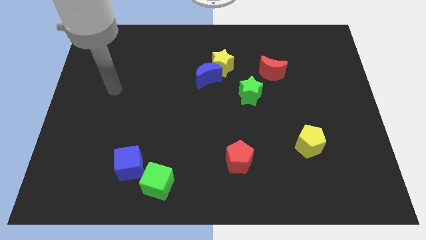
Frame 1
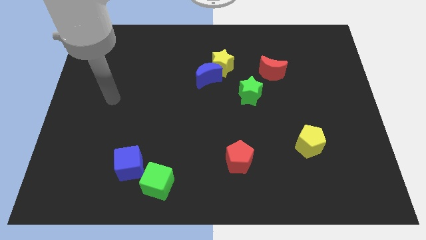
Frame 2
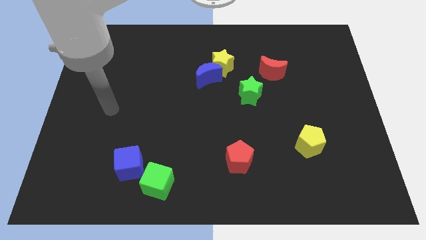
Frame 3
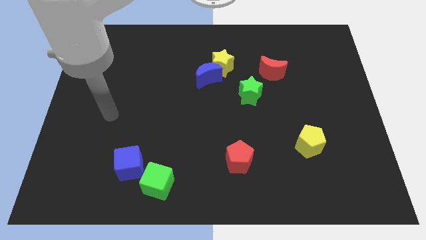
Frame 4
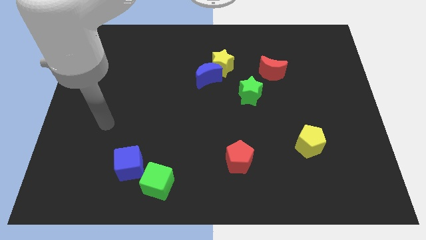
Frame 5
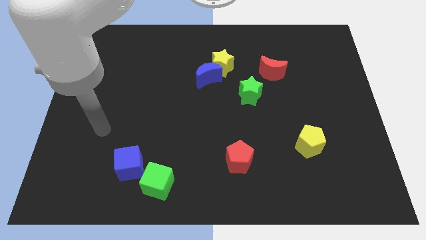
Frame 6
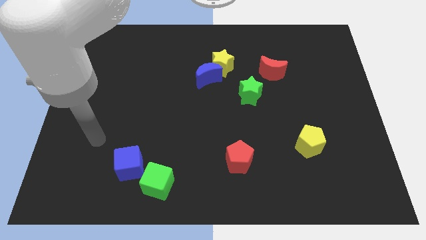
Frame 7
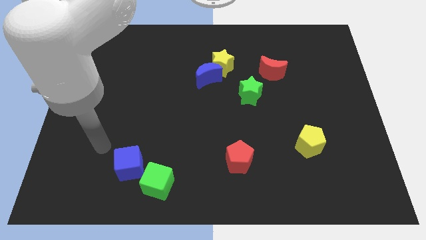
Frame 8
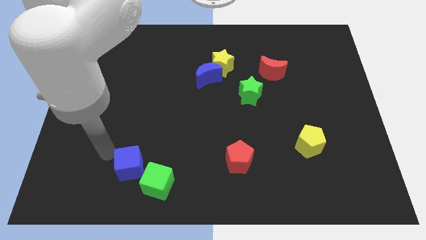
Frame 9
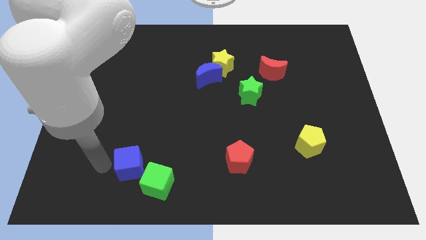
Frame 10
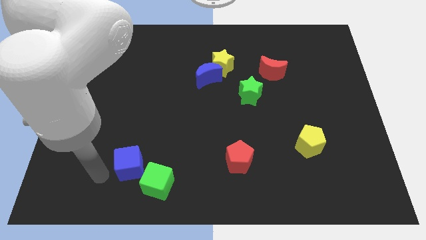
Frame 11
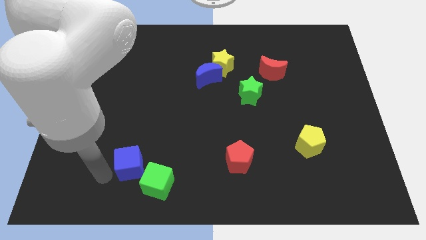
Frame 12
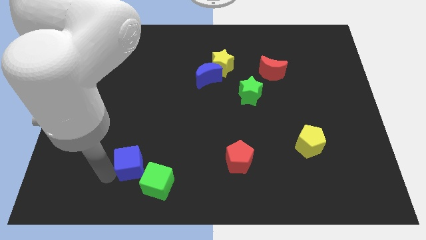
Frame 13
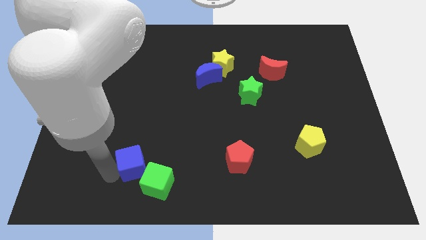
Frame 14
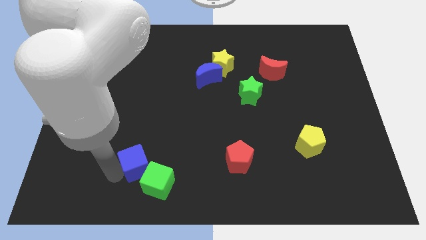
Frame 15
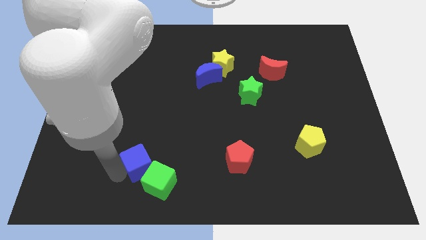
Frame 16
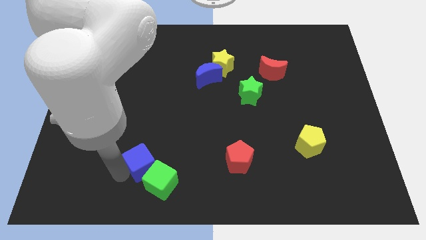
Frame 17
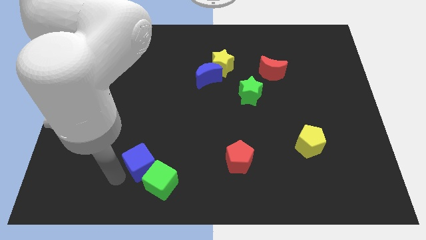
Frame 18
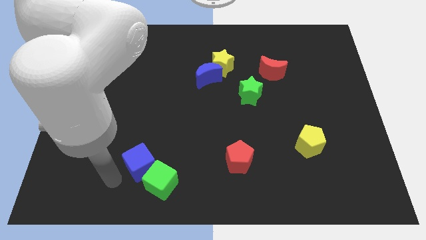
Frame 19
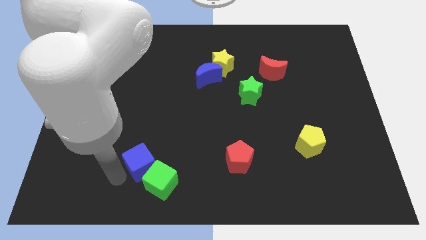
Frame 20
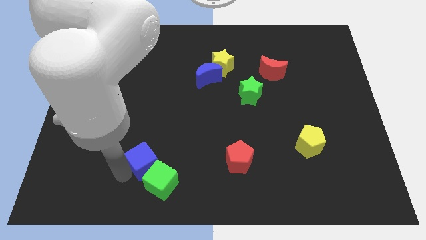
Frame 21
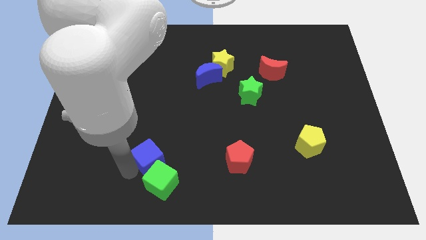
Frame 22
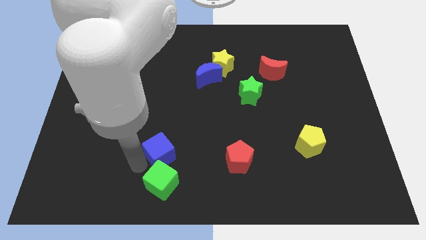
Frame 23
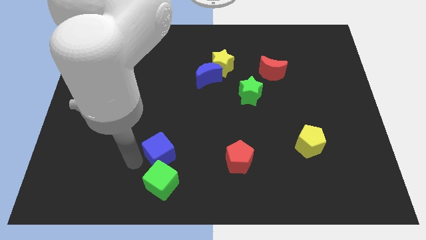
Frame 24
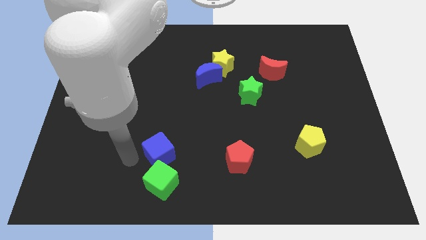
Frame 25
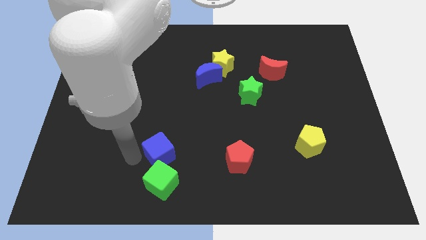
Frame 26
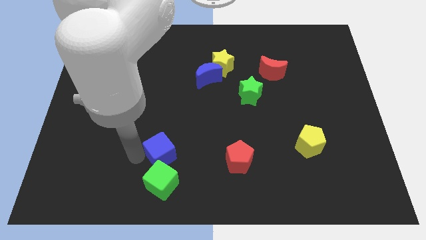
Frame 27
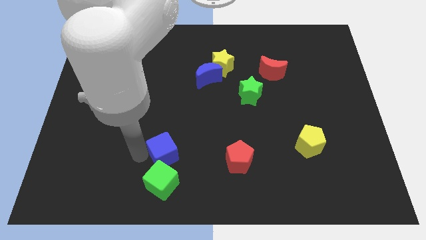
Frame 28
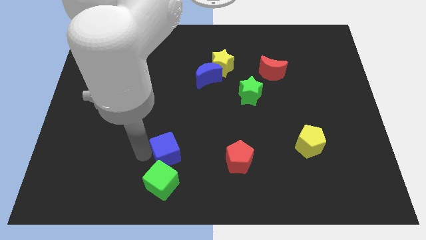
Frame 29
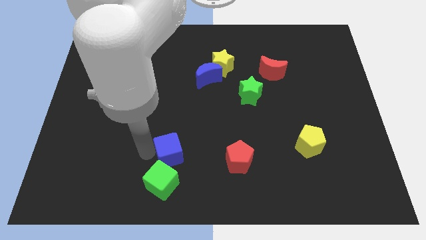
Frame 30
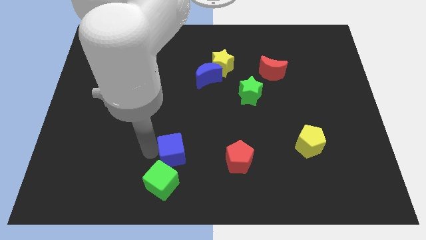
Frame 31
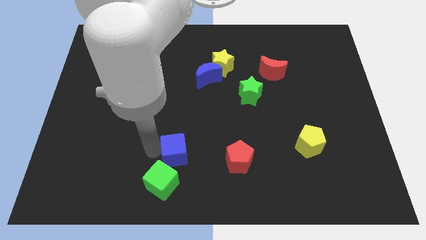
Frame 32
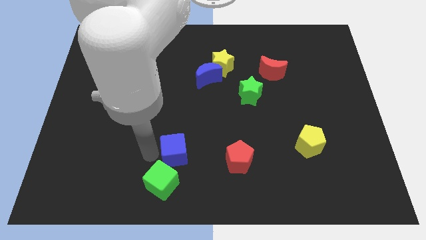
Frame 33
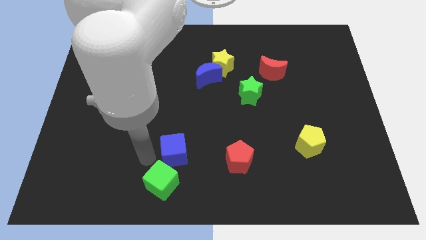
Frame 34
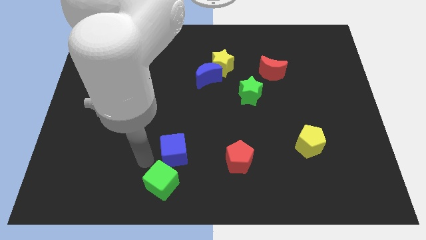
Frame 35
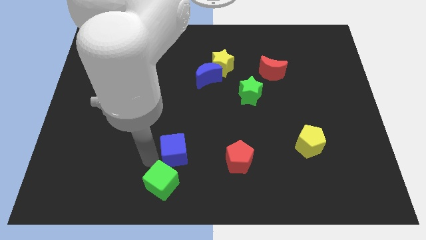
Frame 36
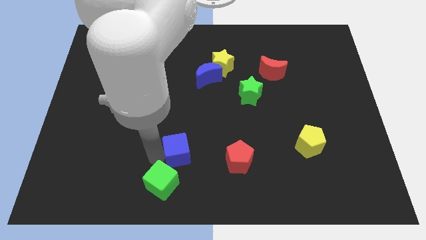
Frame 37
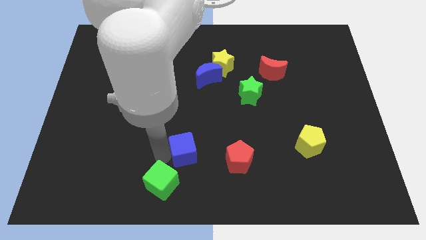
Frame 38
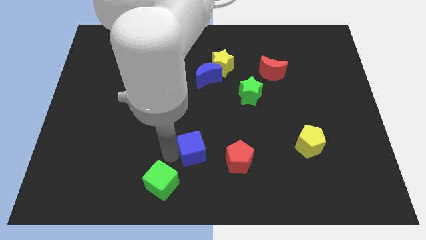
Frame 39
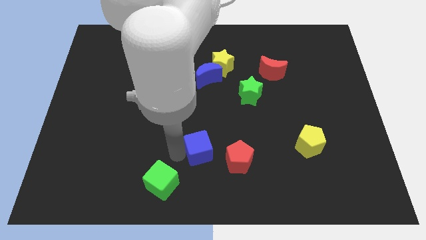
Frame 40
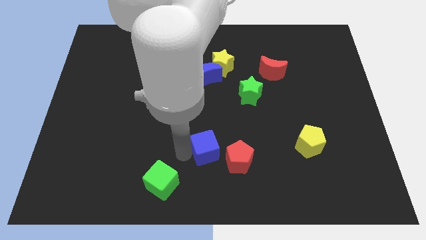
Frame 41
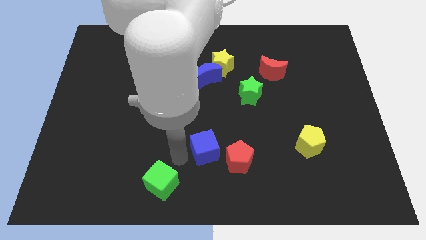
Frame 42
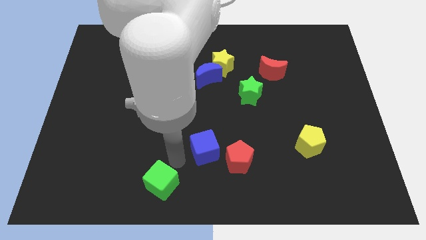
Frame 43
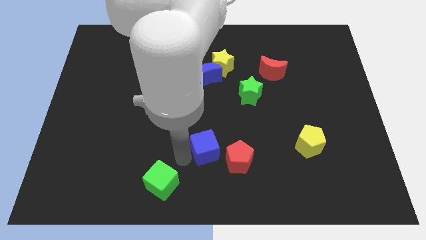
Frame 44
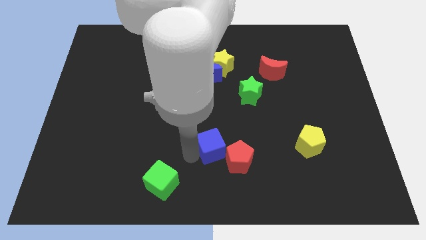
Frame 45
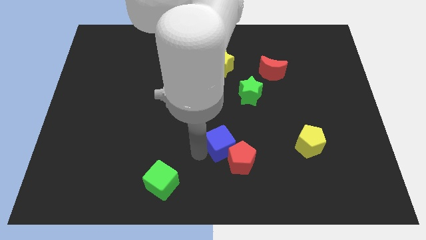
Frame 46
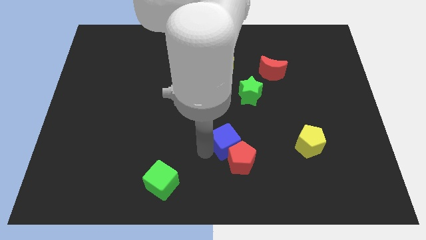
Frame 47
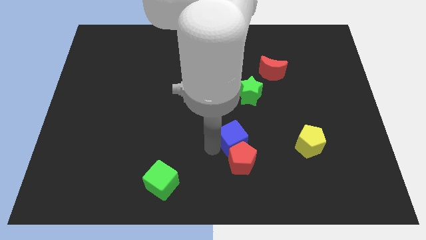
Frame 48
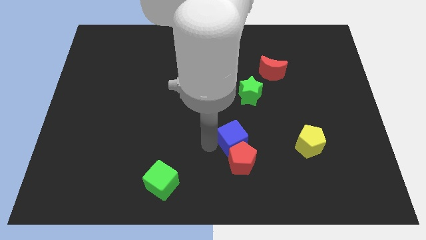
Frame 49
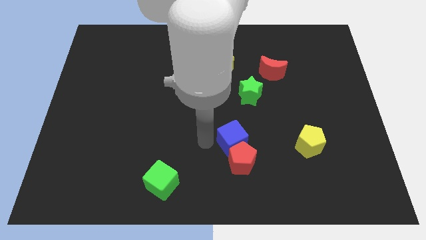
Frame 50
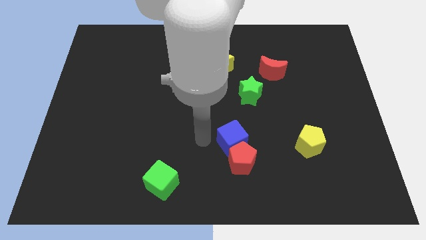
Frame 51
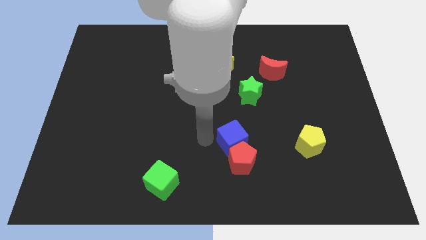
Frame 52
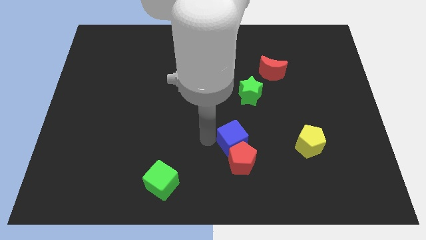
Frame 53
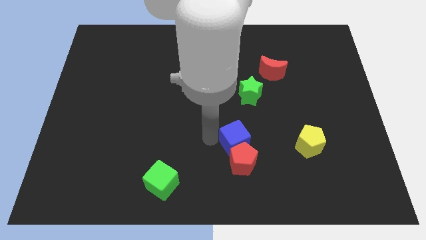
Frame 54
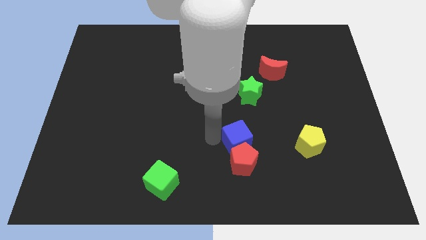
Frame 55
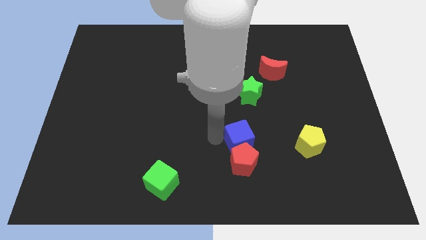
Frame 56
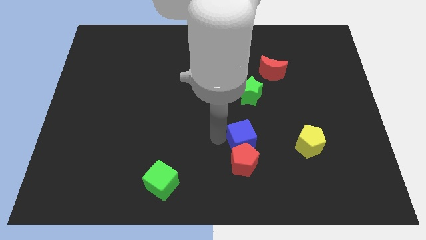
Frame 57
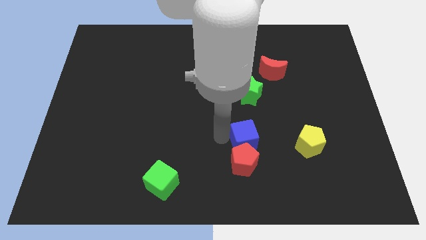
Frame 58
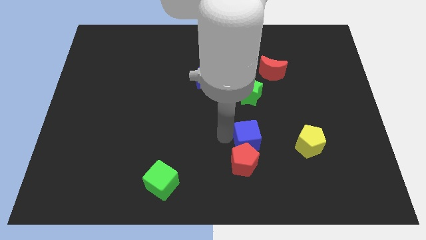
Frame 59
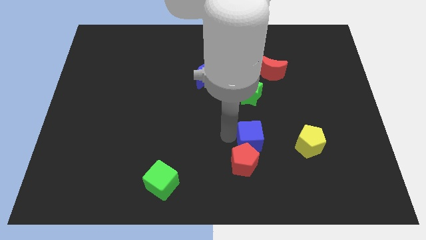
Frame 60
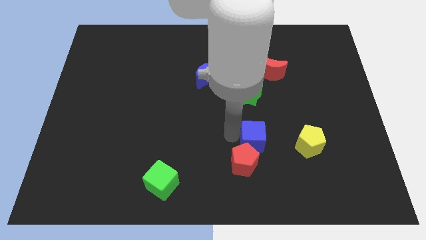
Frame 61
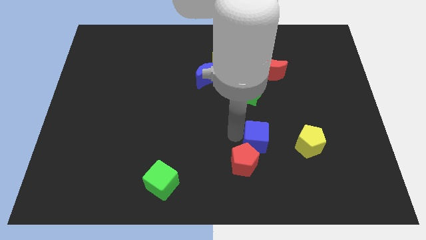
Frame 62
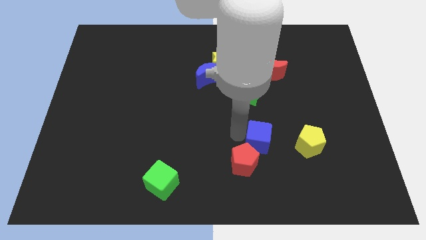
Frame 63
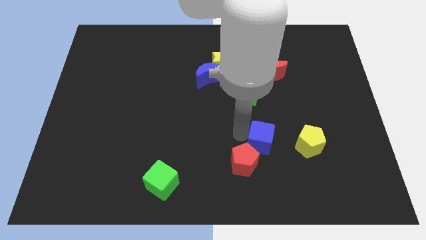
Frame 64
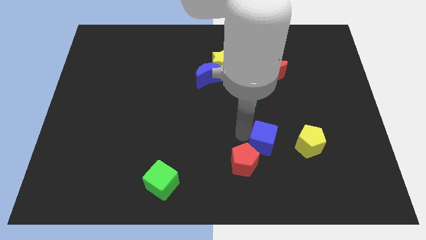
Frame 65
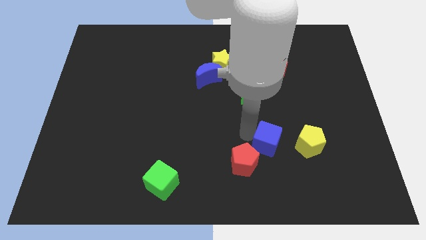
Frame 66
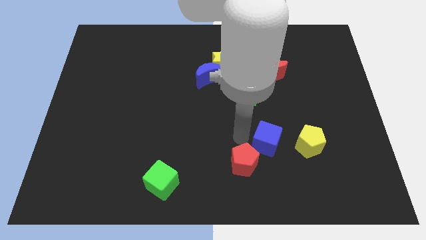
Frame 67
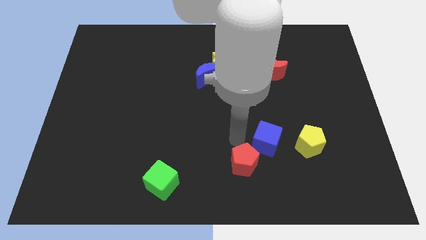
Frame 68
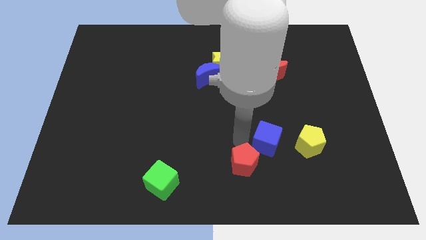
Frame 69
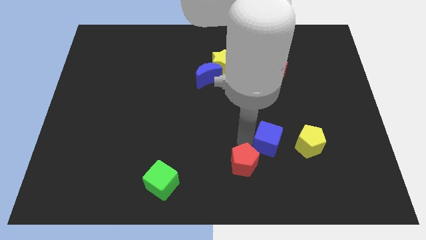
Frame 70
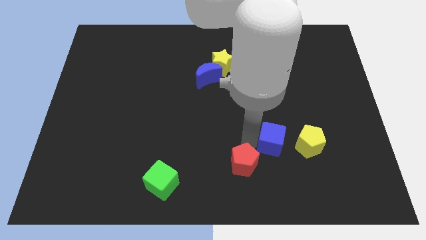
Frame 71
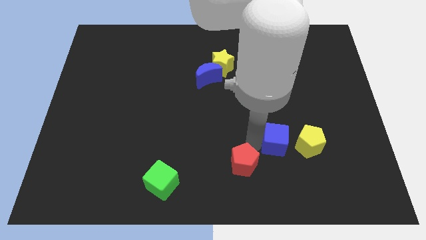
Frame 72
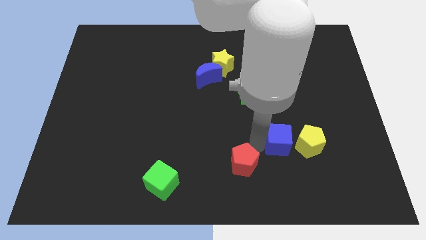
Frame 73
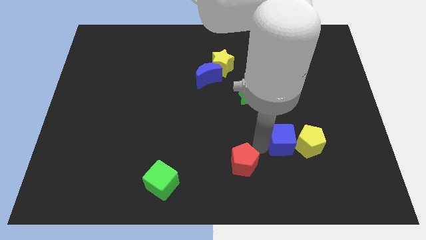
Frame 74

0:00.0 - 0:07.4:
move the blue cube to the yellow pentagon
